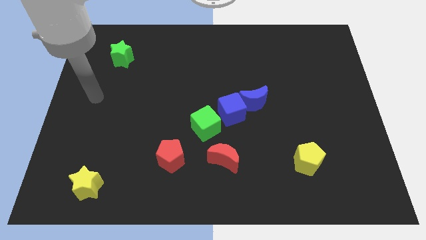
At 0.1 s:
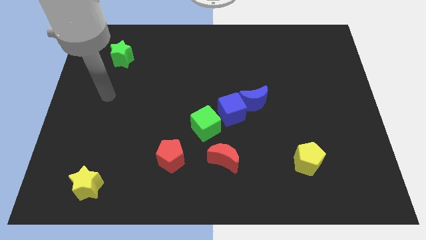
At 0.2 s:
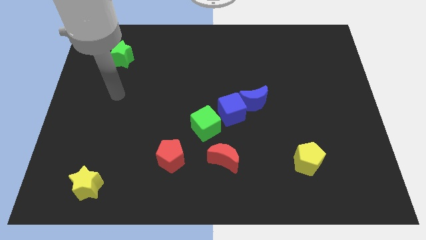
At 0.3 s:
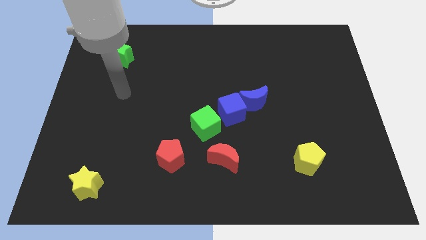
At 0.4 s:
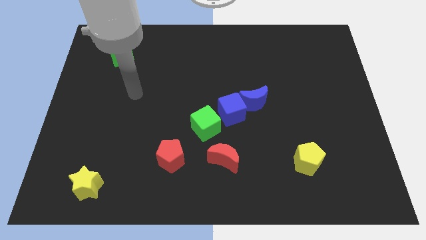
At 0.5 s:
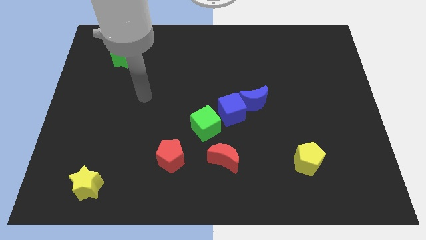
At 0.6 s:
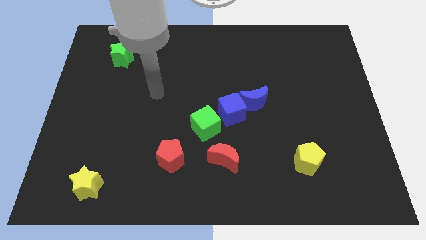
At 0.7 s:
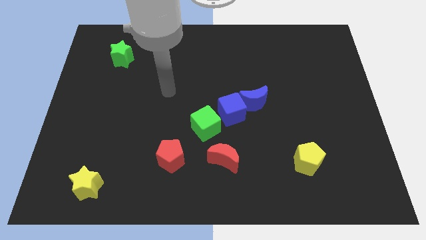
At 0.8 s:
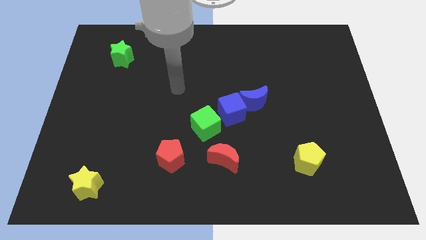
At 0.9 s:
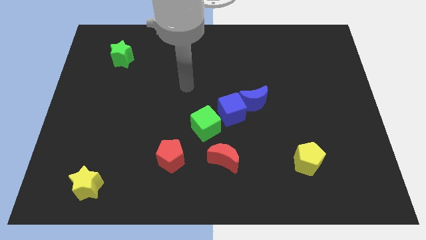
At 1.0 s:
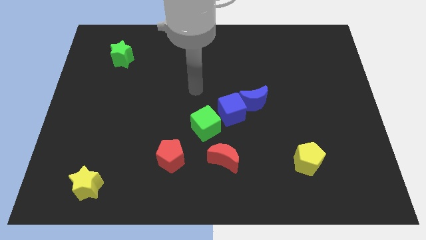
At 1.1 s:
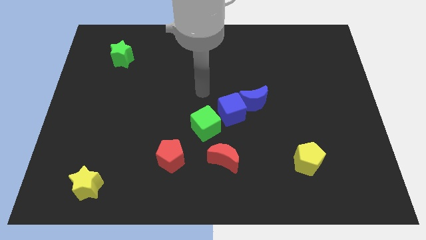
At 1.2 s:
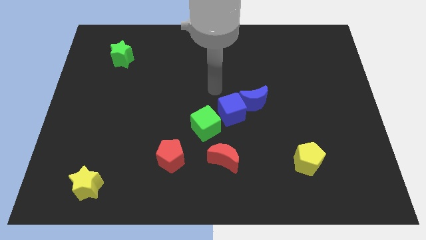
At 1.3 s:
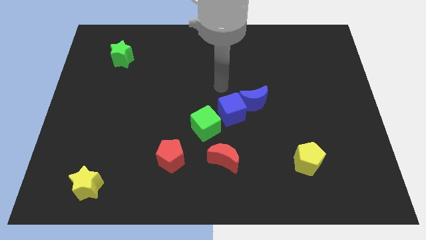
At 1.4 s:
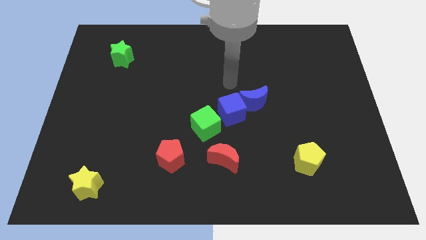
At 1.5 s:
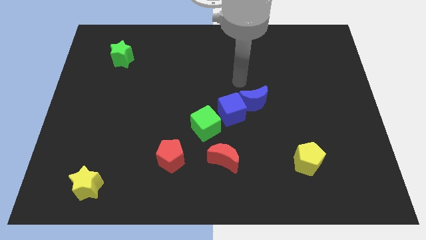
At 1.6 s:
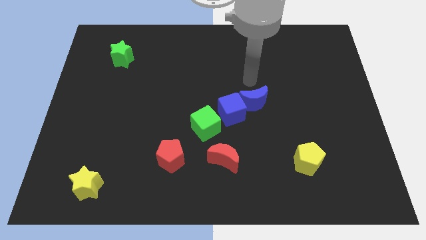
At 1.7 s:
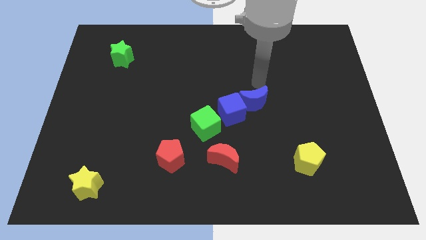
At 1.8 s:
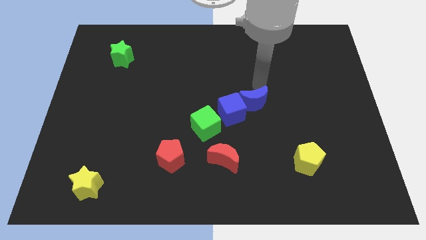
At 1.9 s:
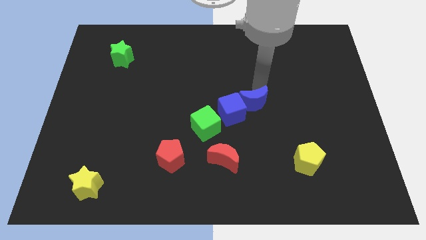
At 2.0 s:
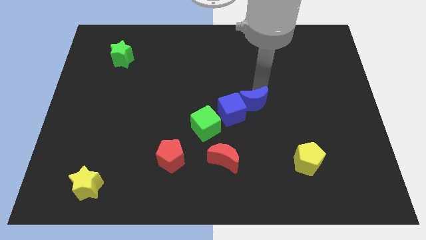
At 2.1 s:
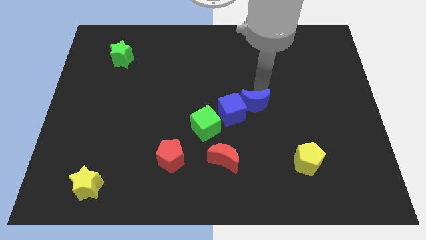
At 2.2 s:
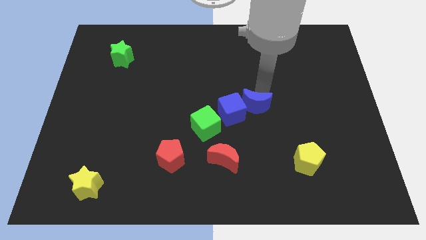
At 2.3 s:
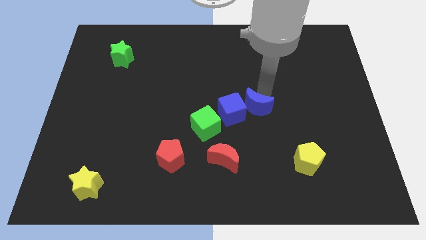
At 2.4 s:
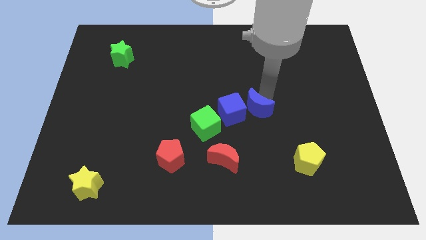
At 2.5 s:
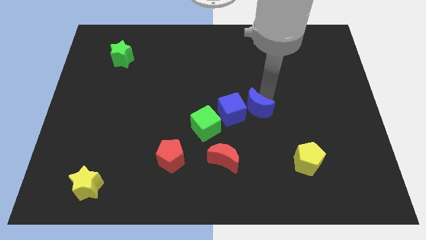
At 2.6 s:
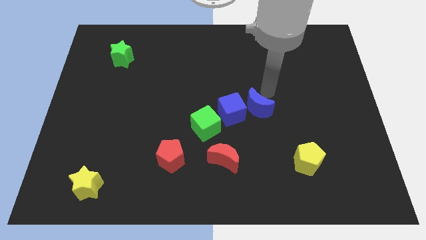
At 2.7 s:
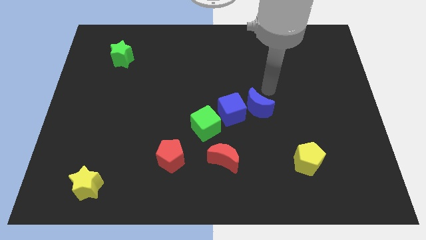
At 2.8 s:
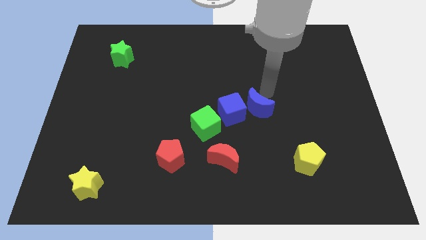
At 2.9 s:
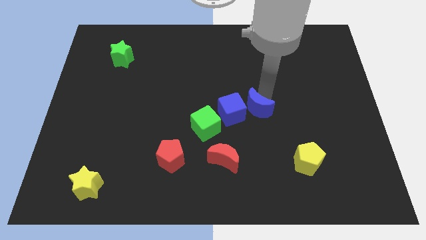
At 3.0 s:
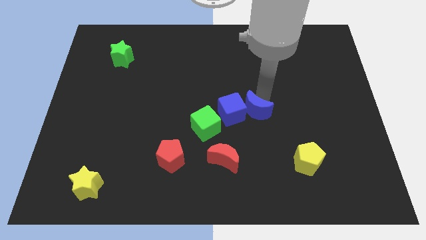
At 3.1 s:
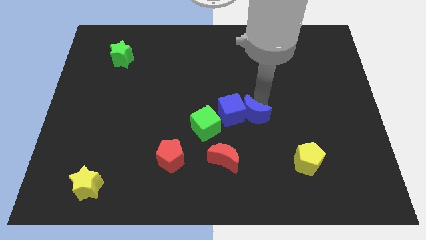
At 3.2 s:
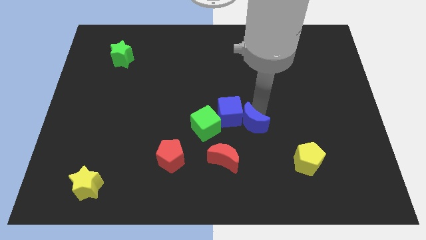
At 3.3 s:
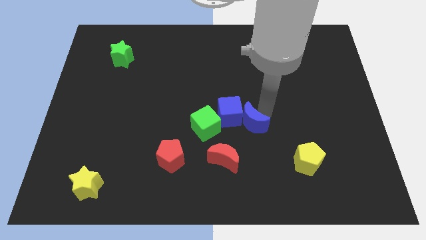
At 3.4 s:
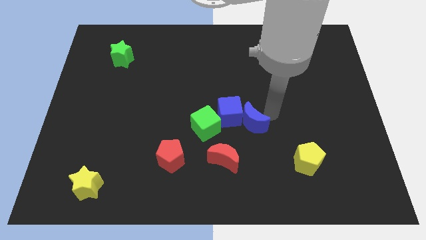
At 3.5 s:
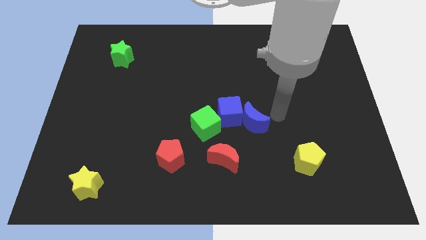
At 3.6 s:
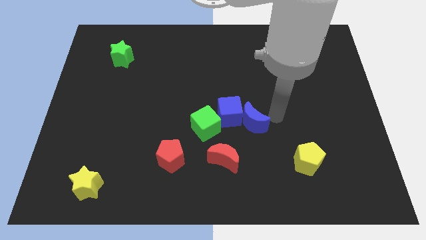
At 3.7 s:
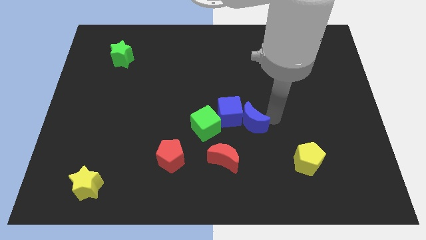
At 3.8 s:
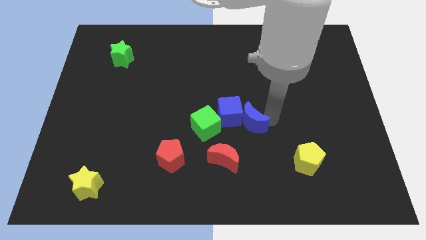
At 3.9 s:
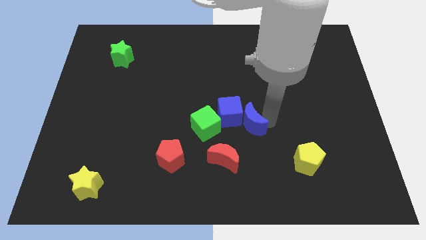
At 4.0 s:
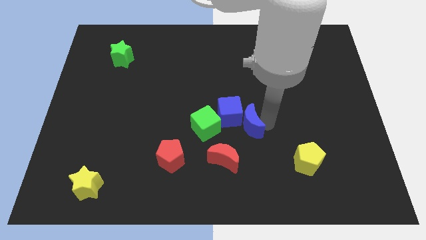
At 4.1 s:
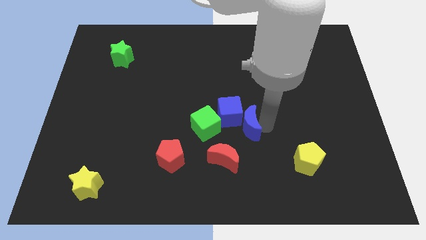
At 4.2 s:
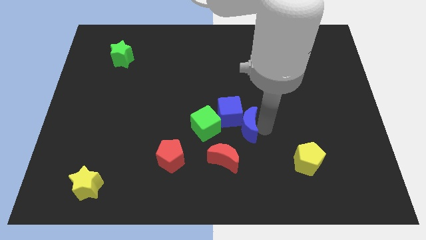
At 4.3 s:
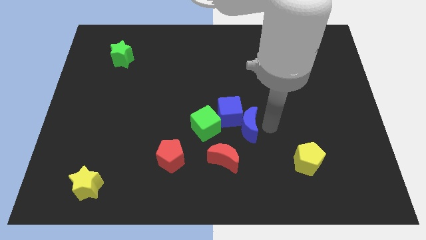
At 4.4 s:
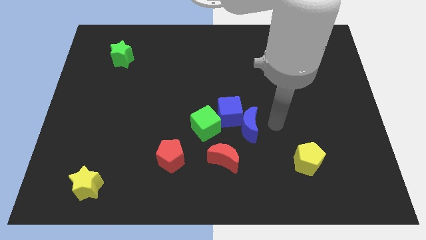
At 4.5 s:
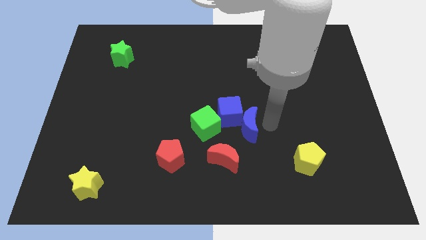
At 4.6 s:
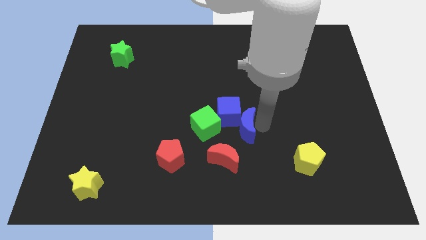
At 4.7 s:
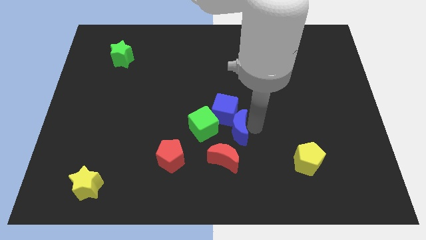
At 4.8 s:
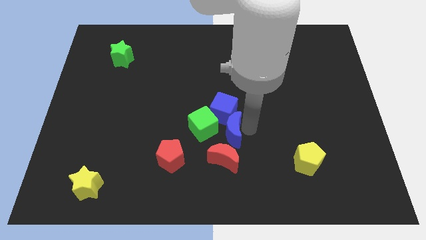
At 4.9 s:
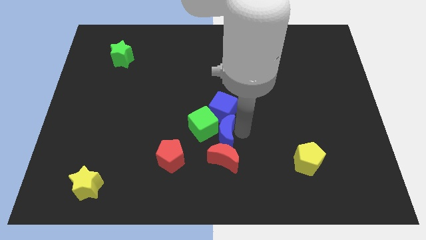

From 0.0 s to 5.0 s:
move the blue moon next to the green cube

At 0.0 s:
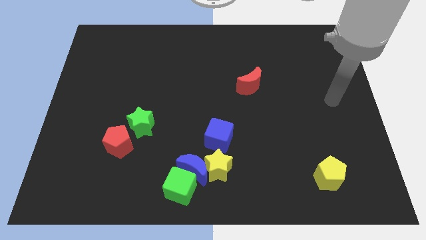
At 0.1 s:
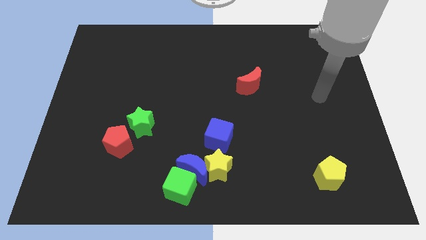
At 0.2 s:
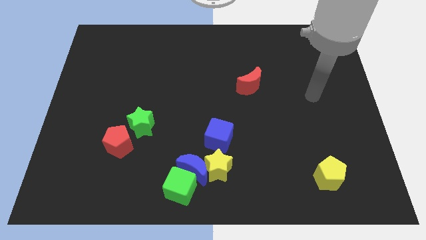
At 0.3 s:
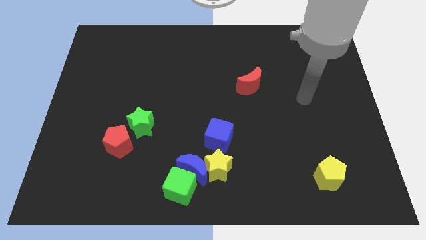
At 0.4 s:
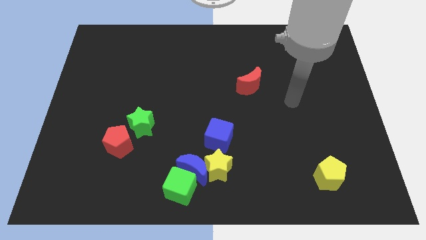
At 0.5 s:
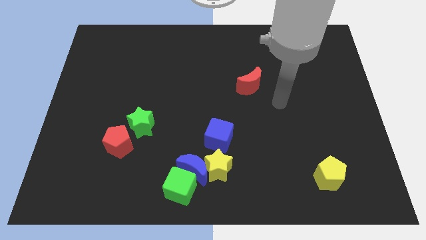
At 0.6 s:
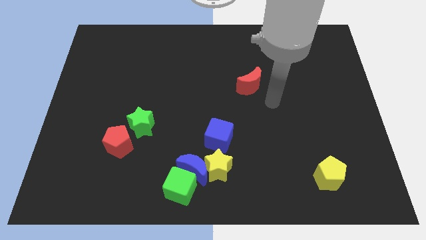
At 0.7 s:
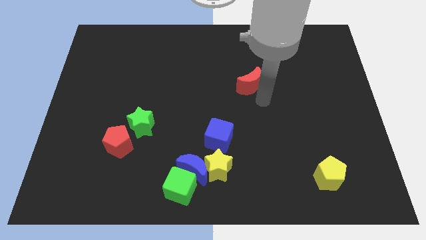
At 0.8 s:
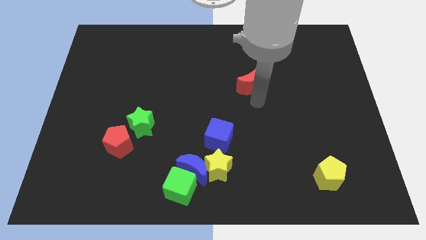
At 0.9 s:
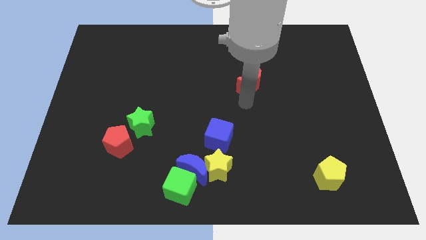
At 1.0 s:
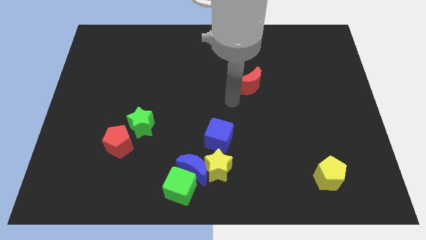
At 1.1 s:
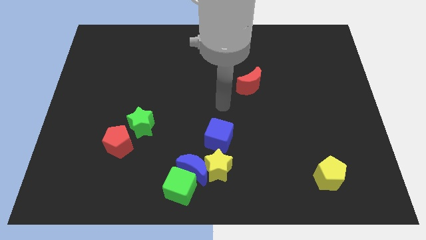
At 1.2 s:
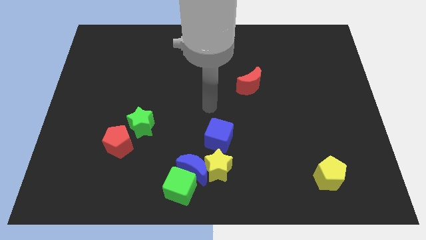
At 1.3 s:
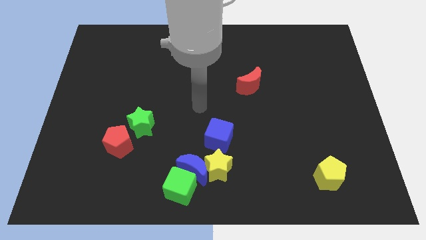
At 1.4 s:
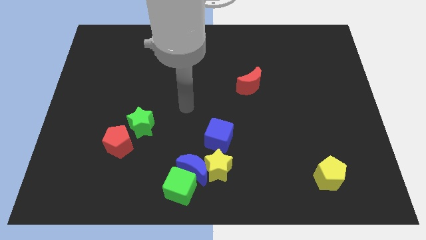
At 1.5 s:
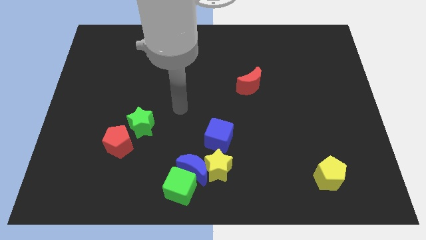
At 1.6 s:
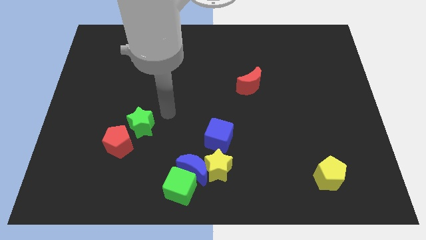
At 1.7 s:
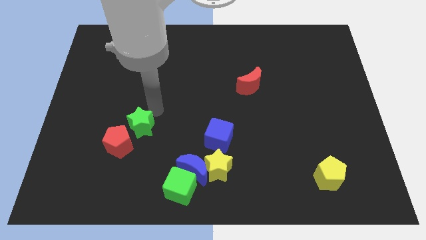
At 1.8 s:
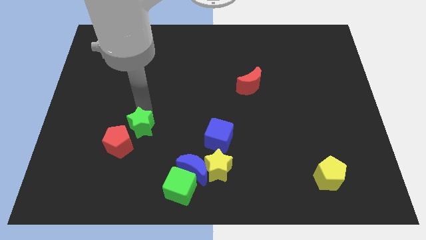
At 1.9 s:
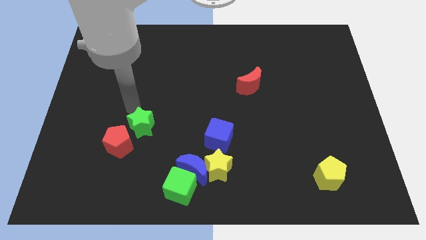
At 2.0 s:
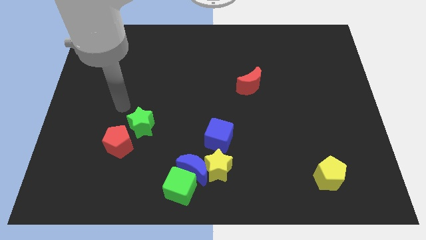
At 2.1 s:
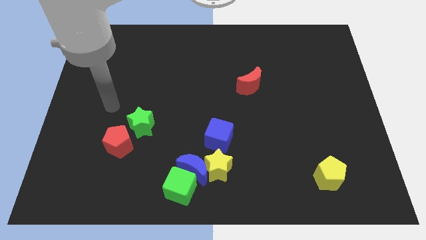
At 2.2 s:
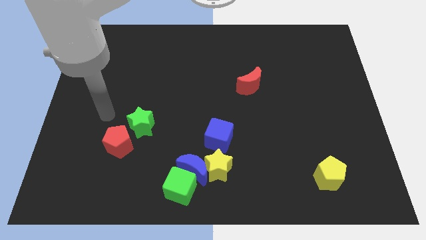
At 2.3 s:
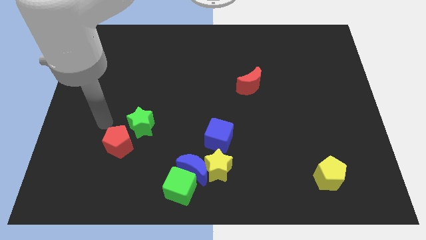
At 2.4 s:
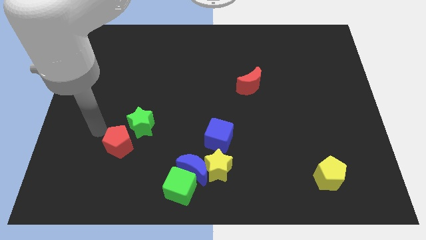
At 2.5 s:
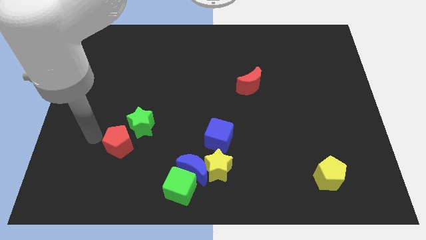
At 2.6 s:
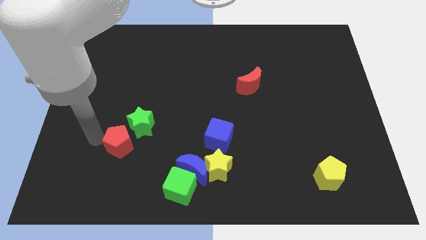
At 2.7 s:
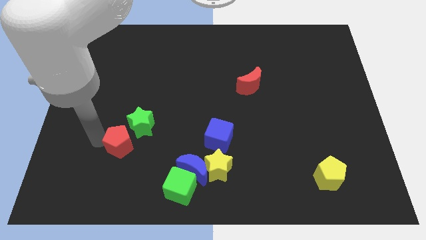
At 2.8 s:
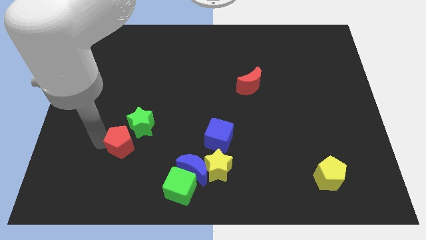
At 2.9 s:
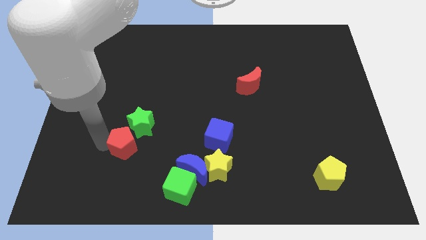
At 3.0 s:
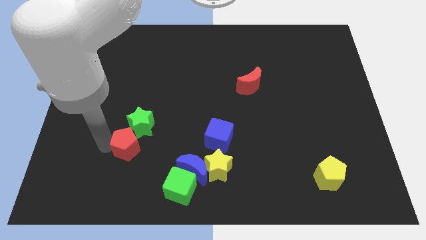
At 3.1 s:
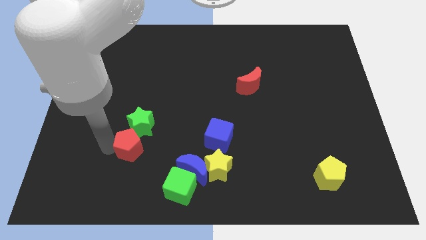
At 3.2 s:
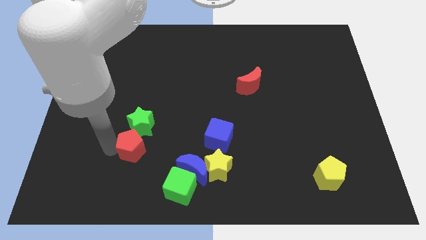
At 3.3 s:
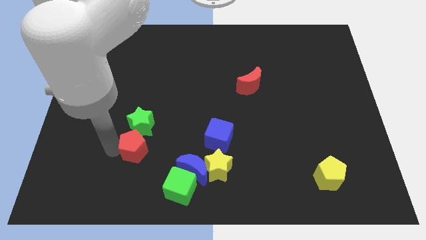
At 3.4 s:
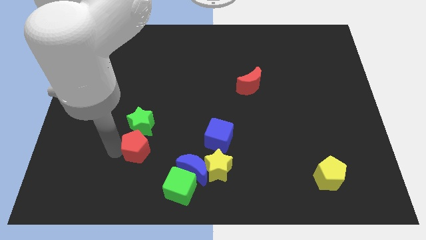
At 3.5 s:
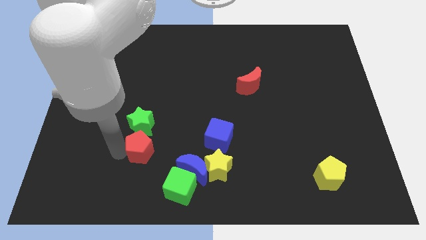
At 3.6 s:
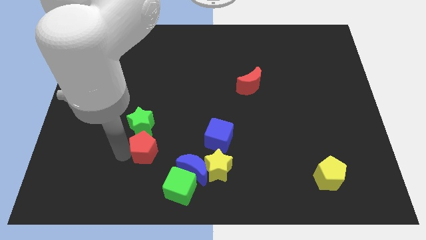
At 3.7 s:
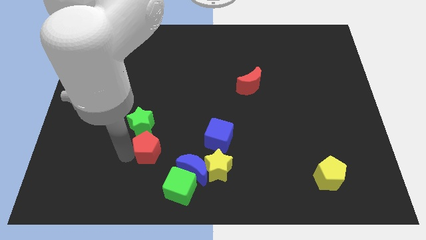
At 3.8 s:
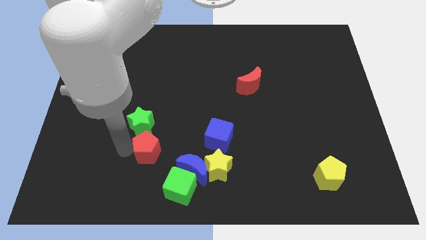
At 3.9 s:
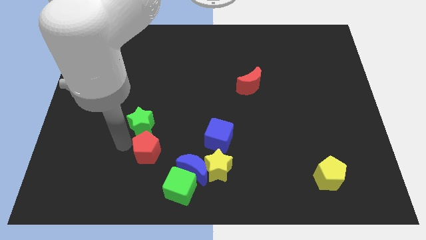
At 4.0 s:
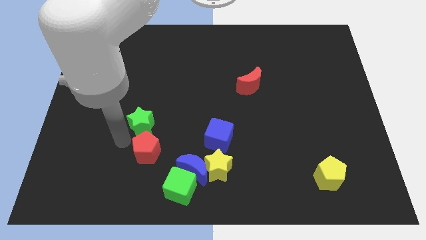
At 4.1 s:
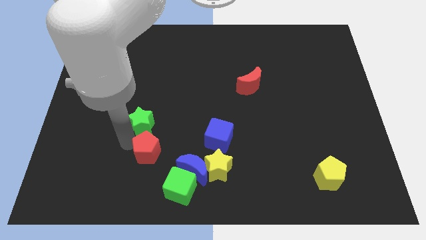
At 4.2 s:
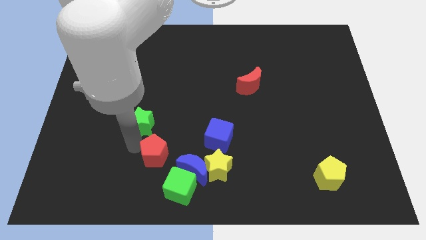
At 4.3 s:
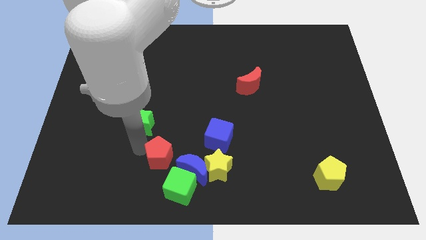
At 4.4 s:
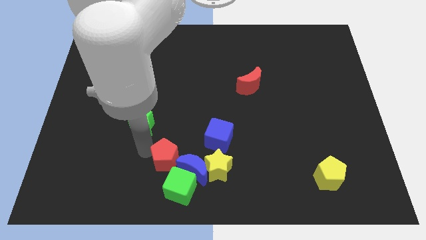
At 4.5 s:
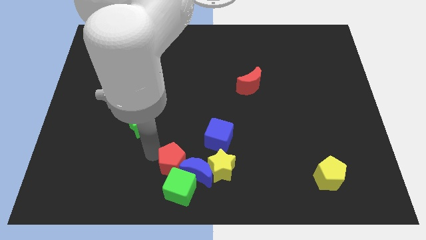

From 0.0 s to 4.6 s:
push the red pentagon close to the blue moon
